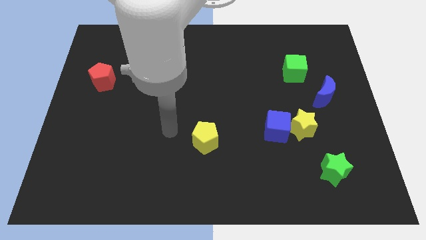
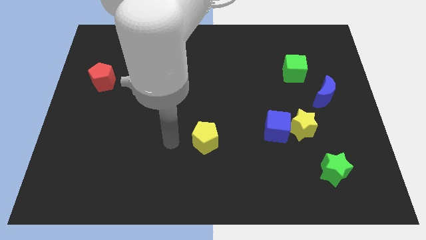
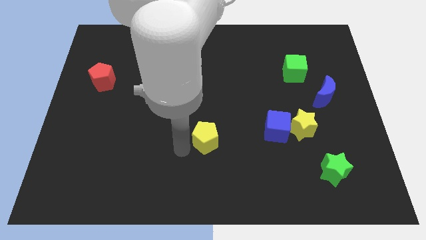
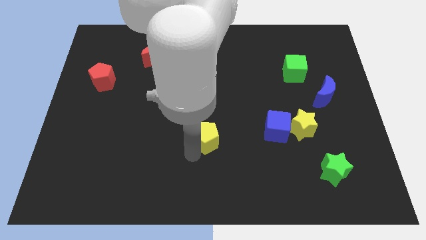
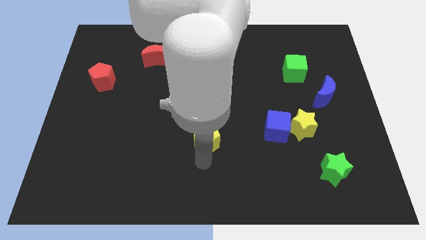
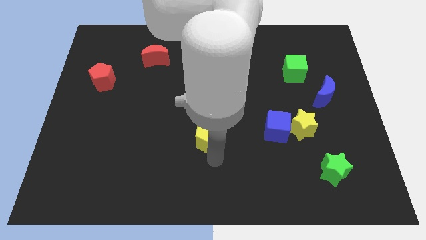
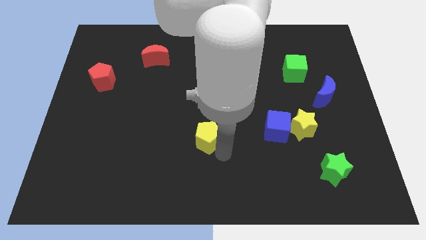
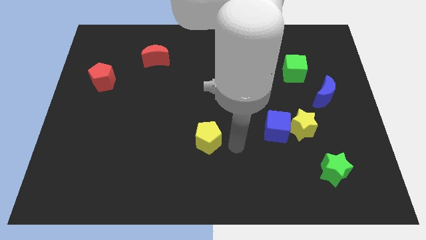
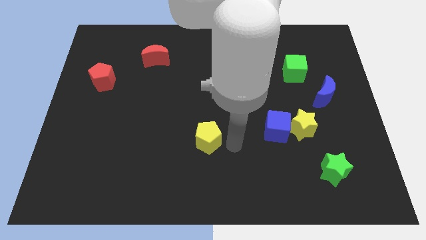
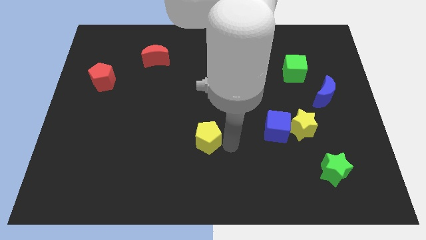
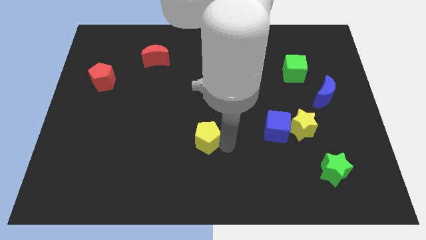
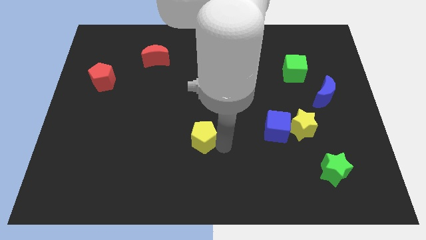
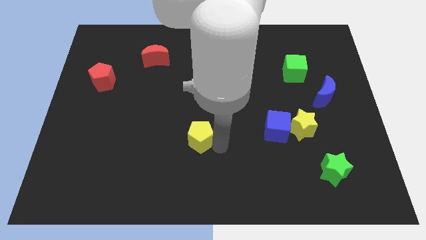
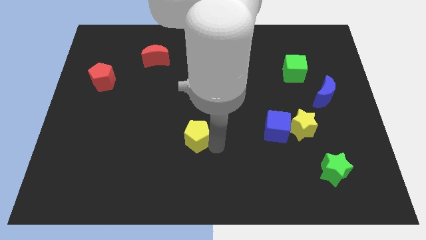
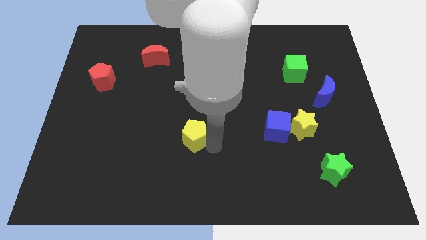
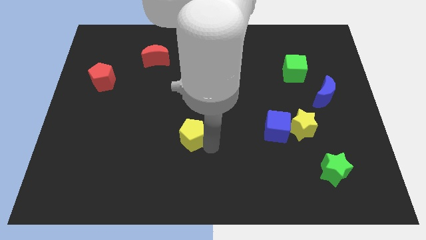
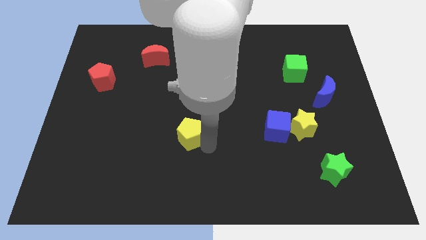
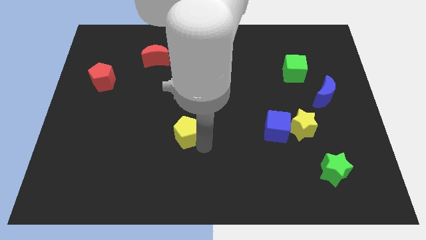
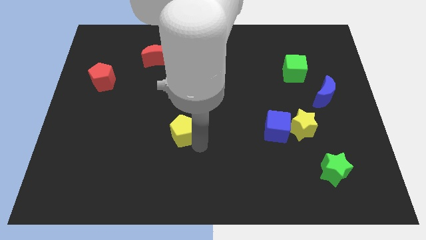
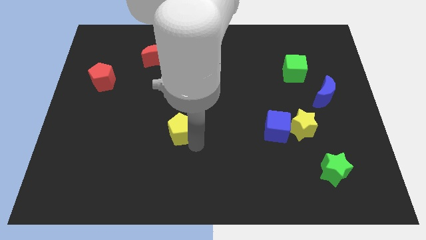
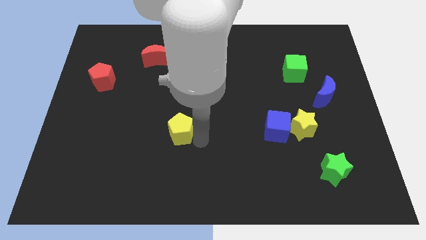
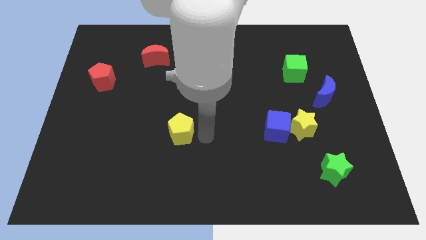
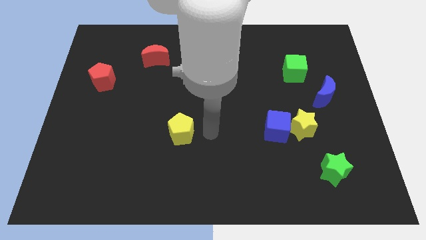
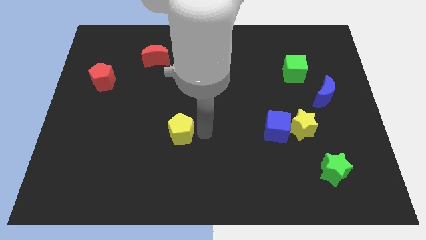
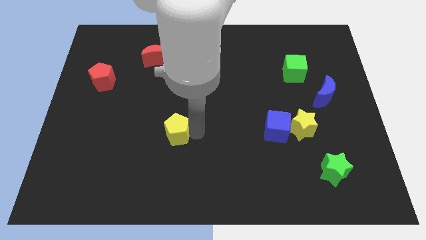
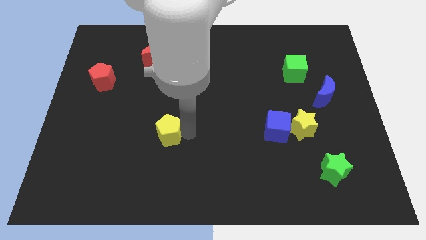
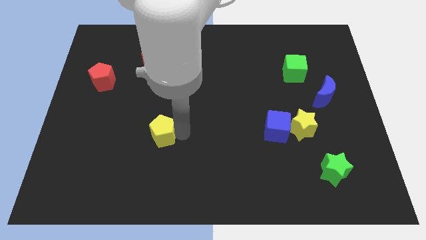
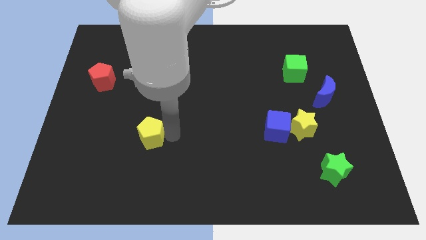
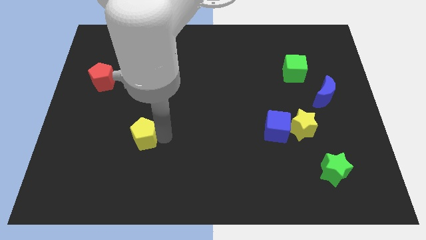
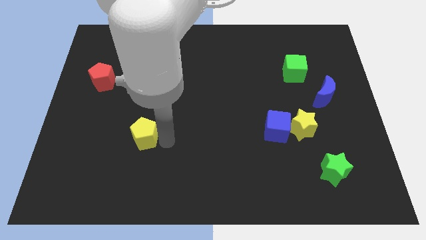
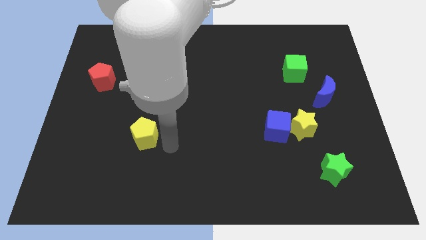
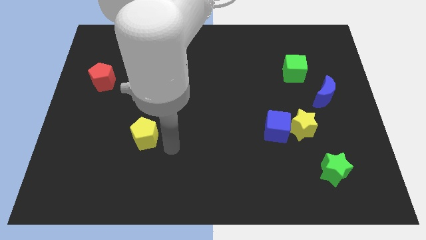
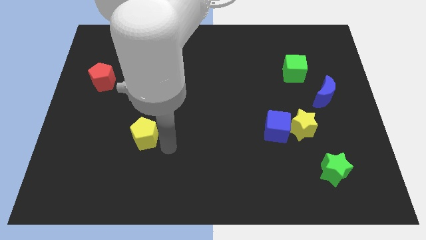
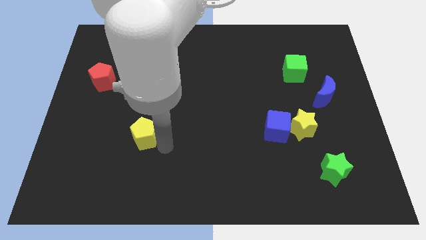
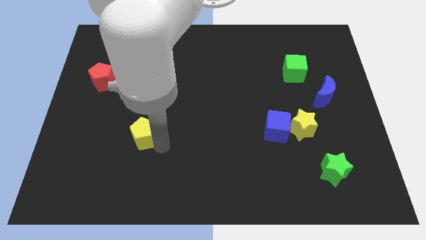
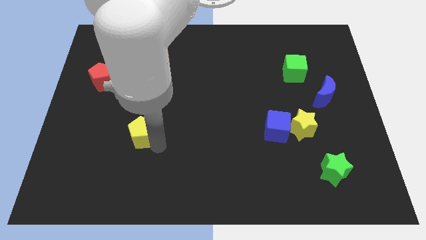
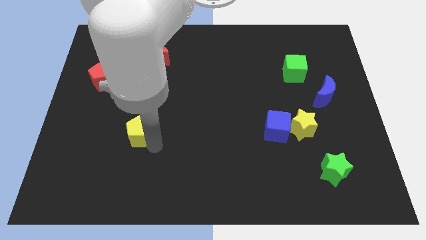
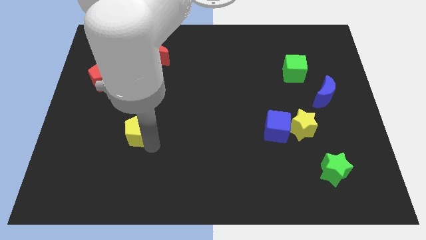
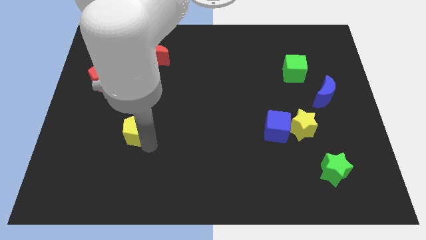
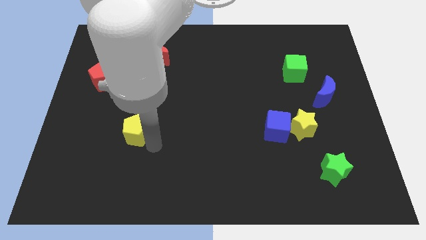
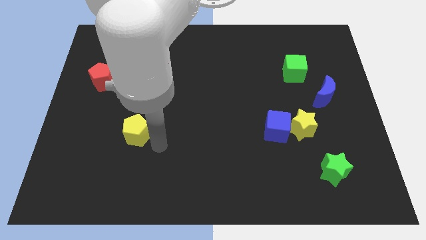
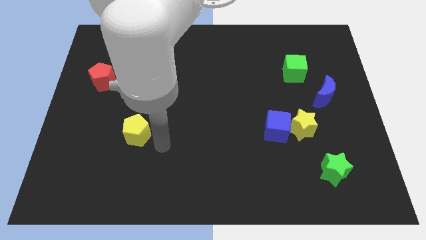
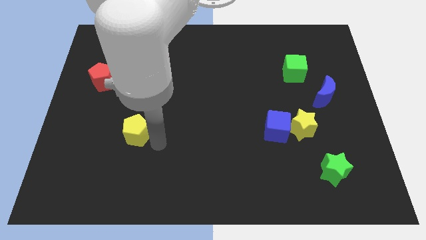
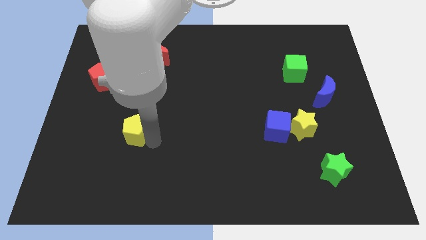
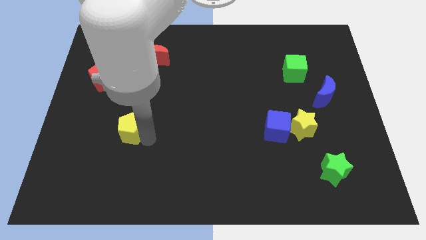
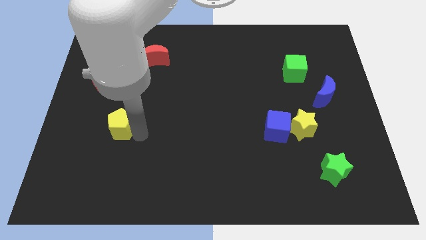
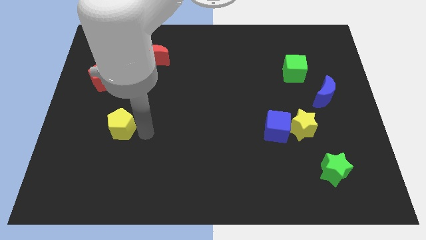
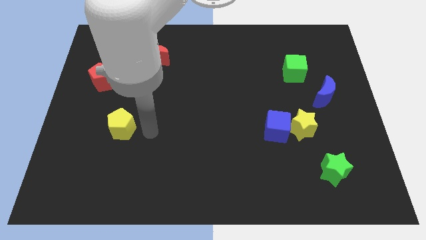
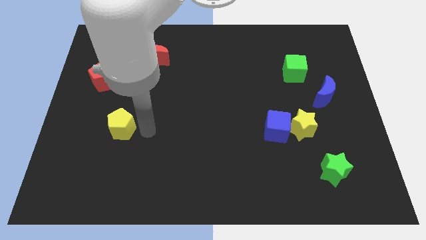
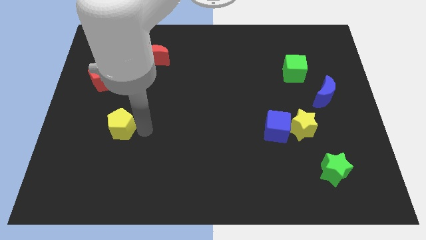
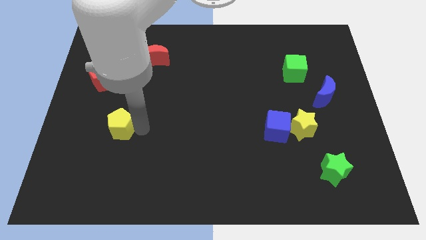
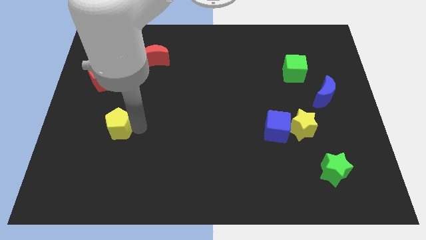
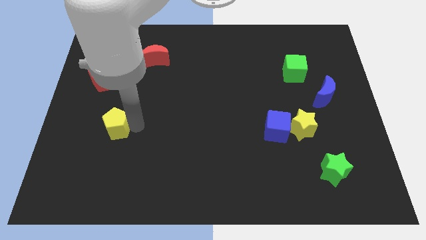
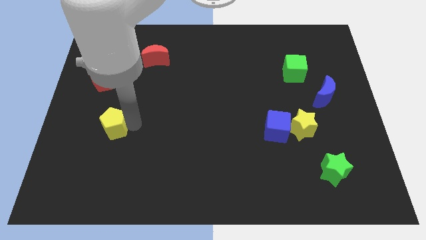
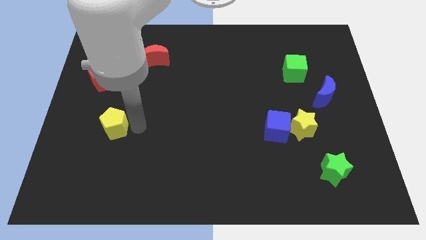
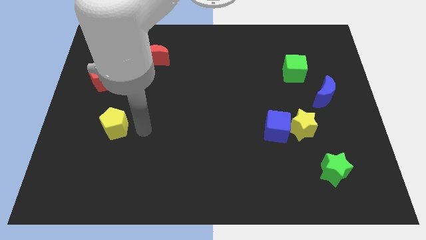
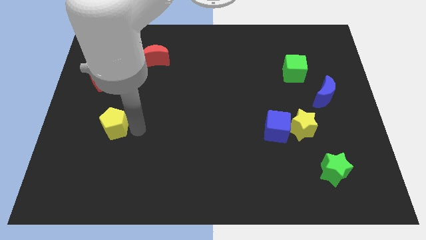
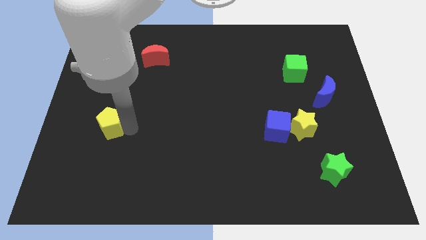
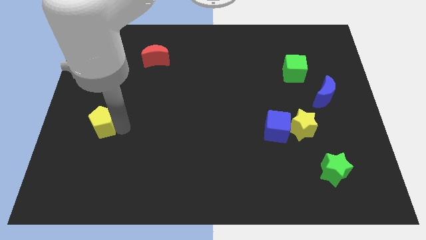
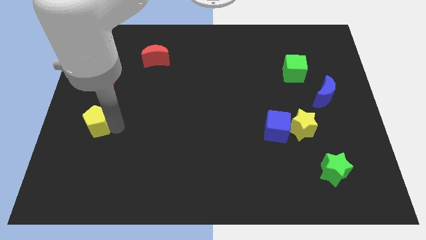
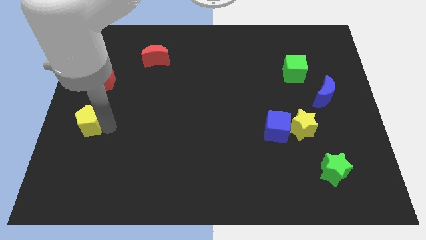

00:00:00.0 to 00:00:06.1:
push the yellow pentagon to the left side of the board
